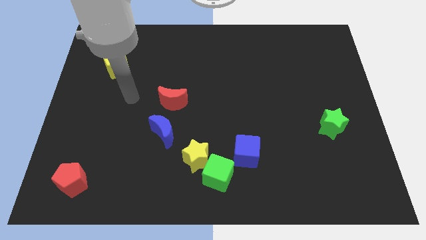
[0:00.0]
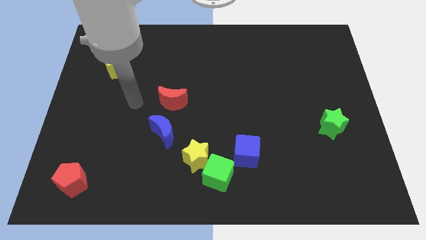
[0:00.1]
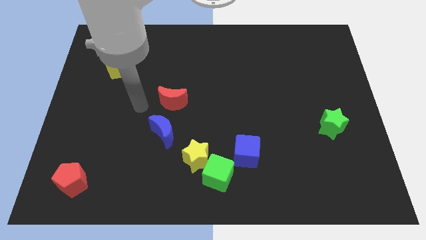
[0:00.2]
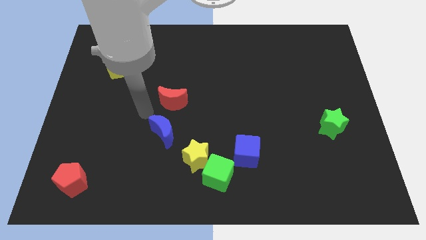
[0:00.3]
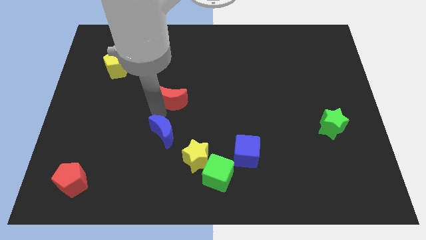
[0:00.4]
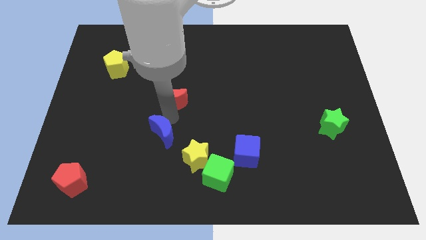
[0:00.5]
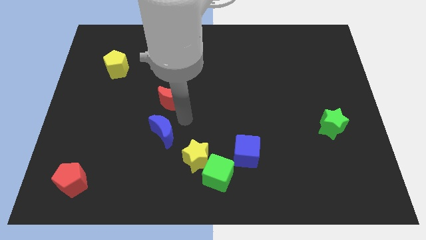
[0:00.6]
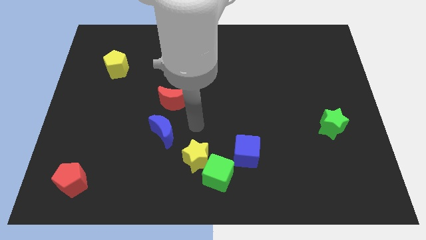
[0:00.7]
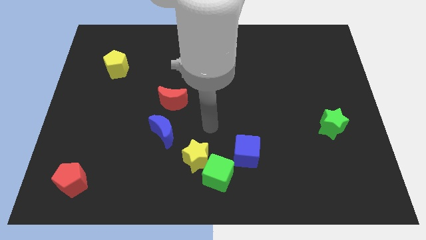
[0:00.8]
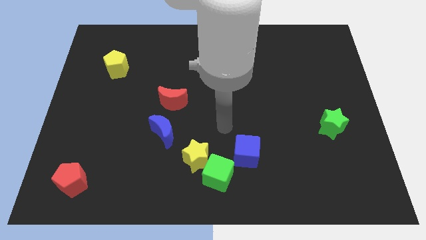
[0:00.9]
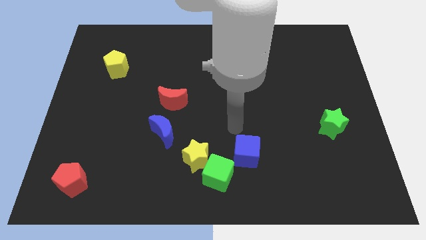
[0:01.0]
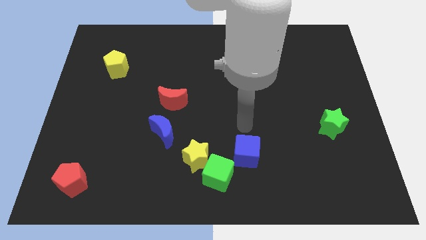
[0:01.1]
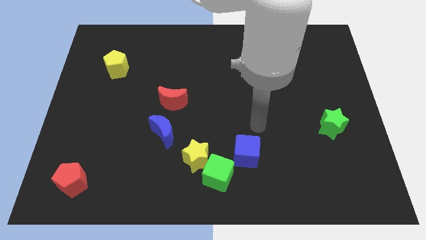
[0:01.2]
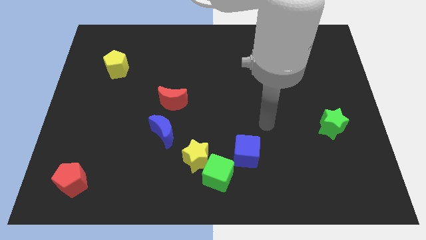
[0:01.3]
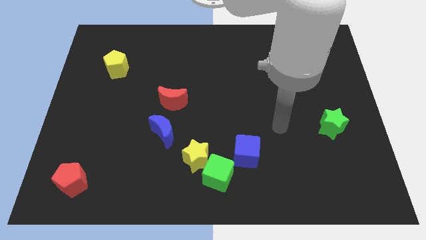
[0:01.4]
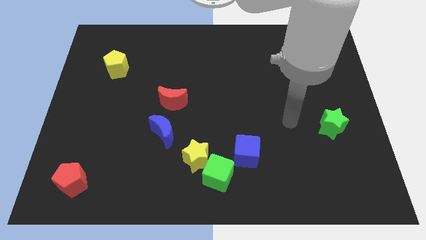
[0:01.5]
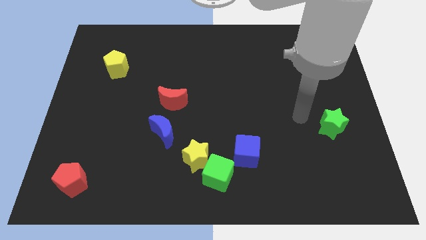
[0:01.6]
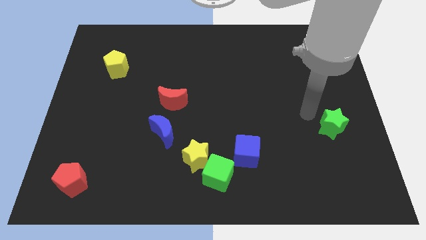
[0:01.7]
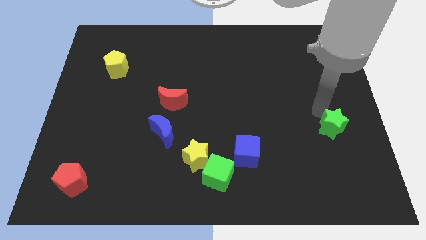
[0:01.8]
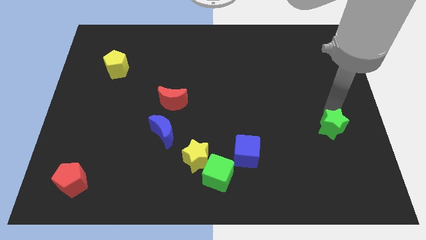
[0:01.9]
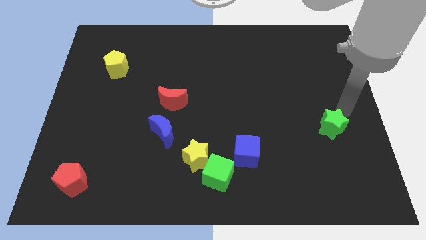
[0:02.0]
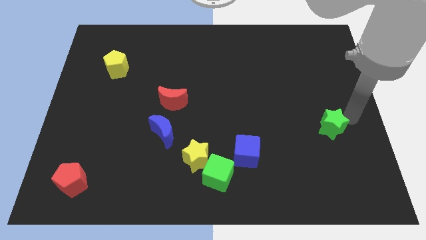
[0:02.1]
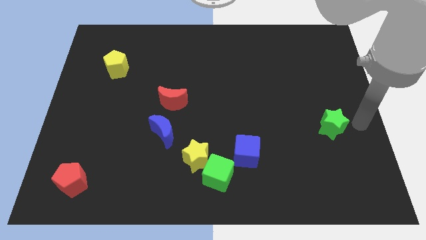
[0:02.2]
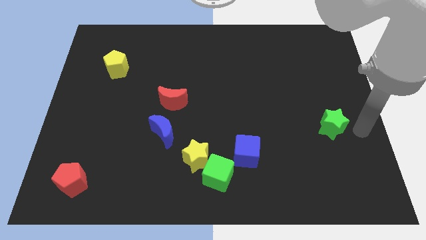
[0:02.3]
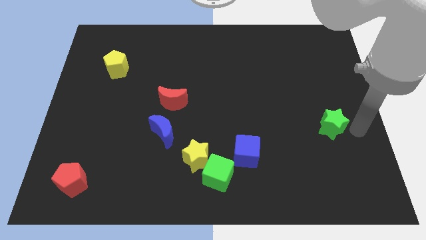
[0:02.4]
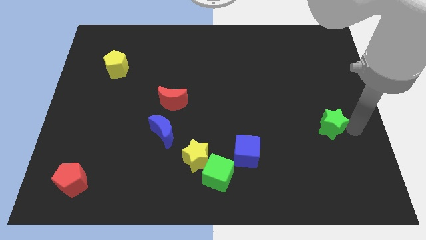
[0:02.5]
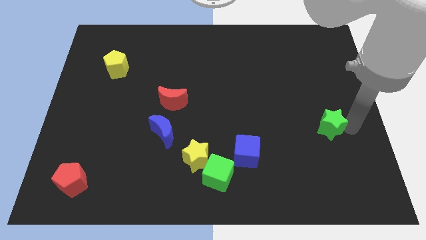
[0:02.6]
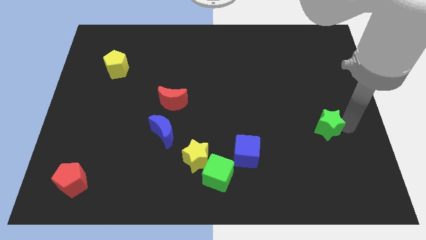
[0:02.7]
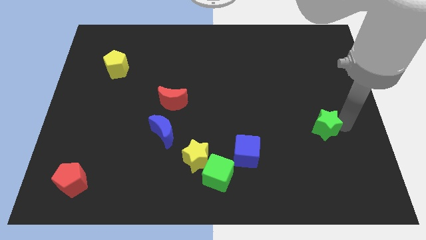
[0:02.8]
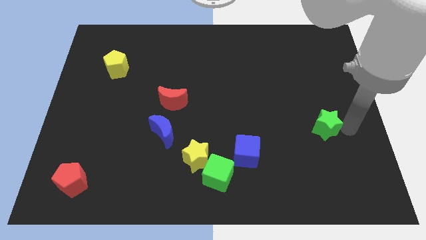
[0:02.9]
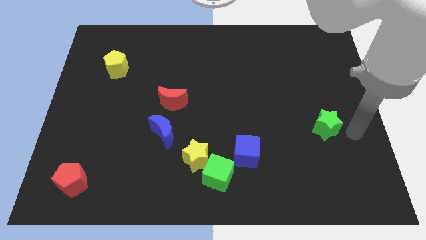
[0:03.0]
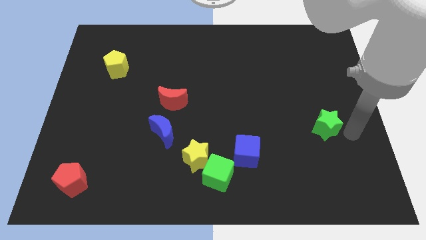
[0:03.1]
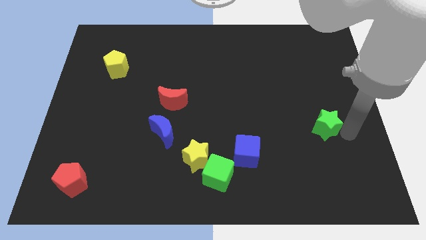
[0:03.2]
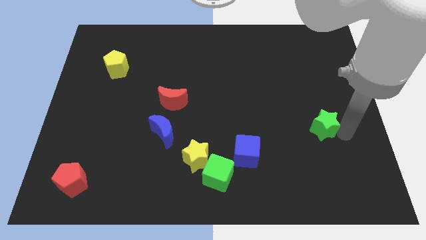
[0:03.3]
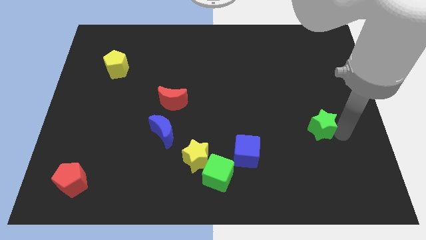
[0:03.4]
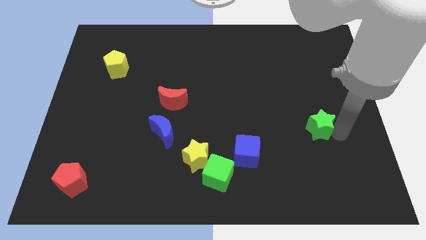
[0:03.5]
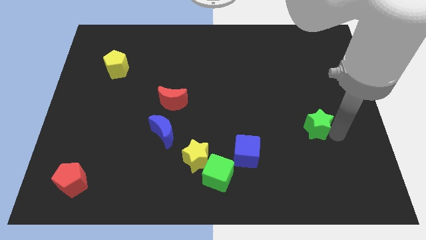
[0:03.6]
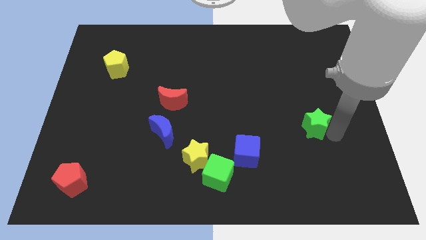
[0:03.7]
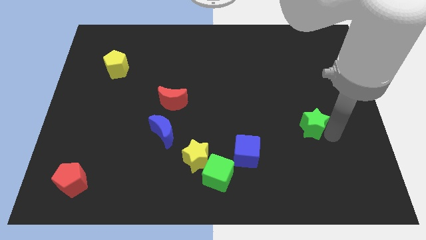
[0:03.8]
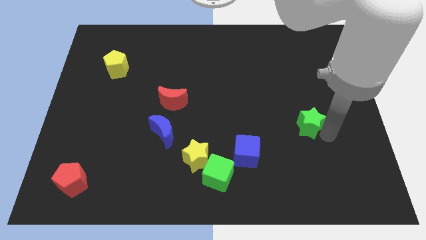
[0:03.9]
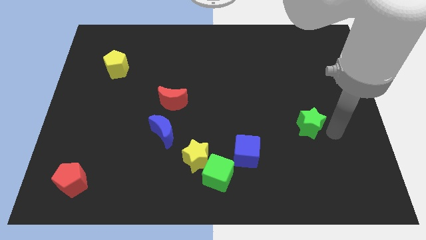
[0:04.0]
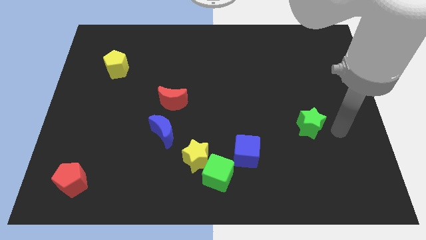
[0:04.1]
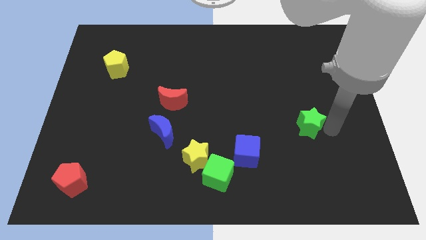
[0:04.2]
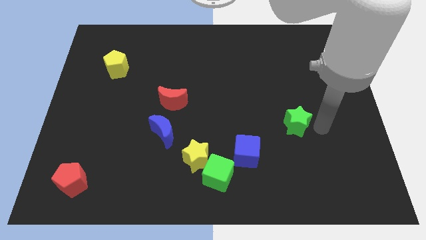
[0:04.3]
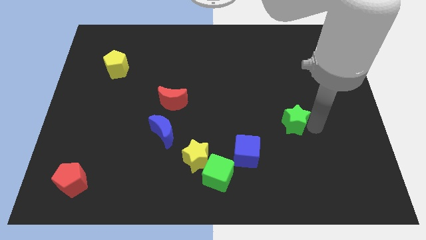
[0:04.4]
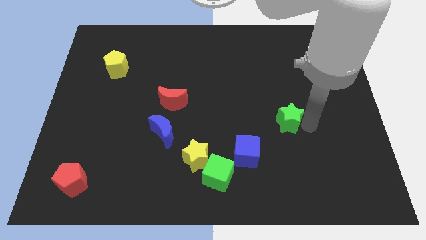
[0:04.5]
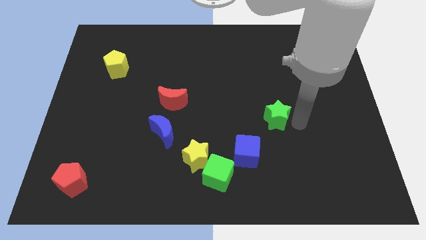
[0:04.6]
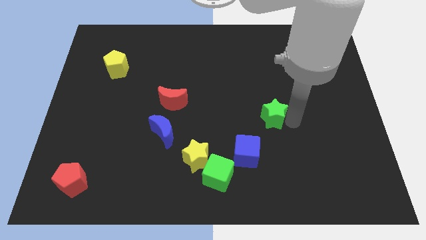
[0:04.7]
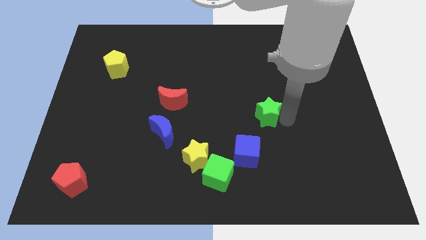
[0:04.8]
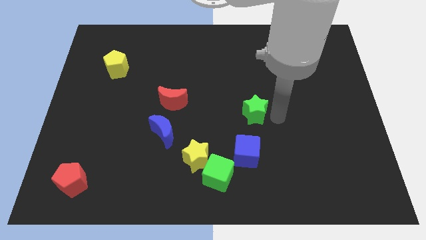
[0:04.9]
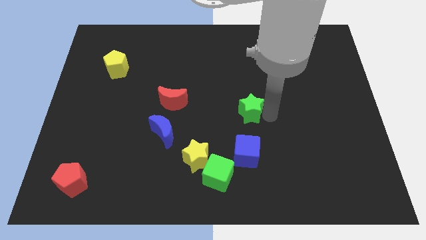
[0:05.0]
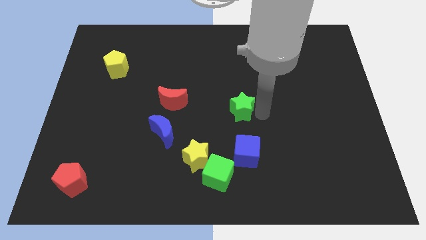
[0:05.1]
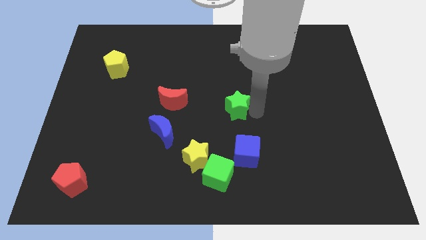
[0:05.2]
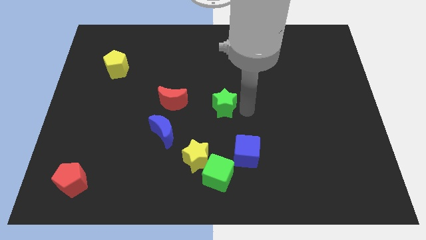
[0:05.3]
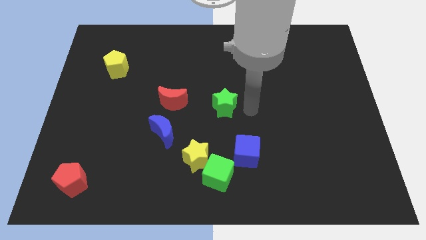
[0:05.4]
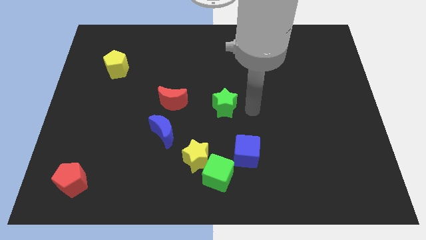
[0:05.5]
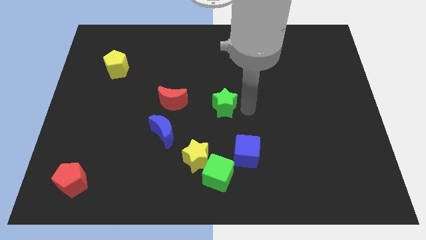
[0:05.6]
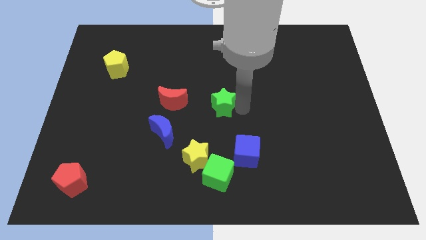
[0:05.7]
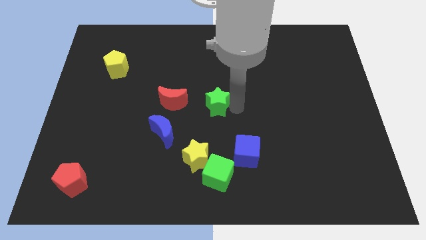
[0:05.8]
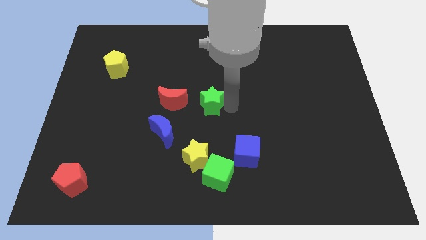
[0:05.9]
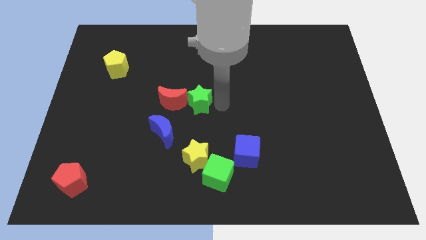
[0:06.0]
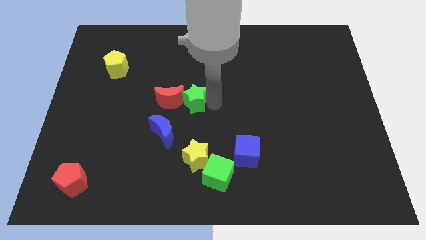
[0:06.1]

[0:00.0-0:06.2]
move the green star next to the red moon

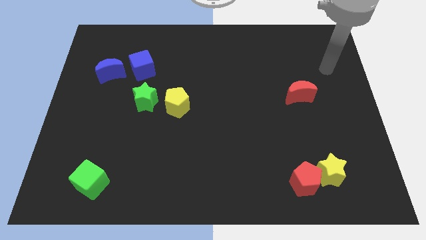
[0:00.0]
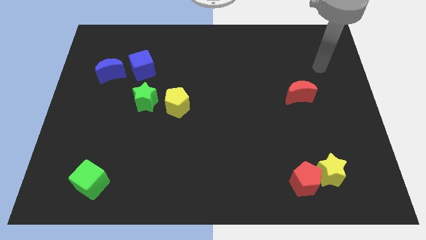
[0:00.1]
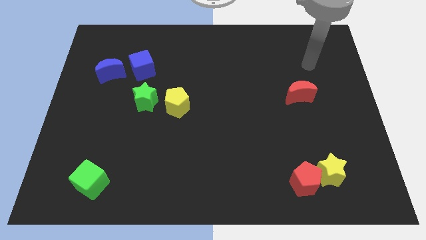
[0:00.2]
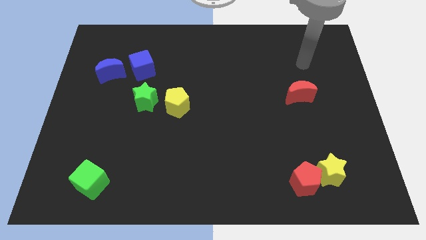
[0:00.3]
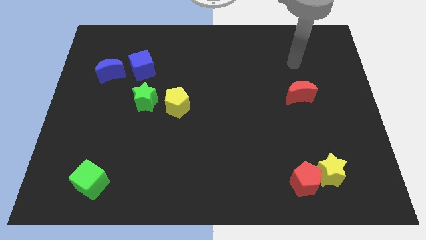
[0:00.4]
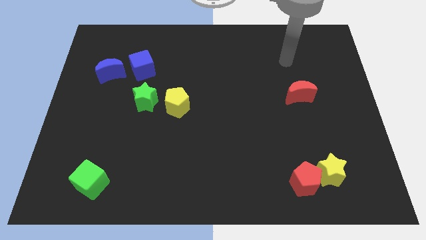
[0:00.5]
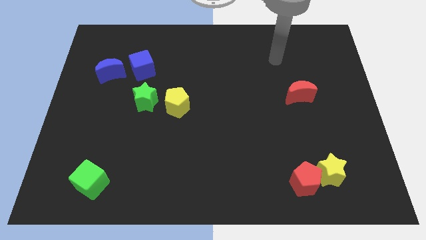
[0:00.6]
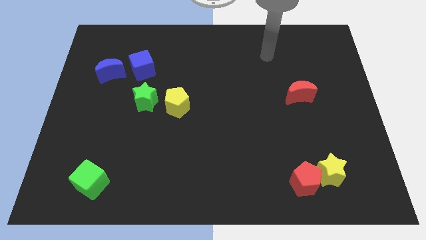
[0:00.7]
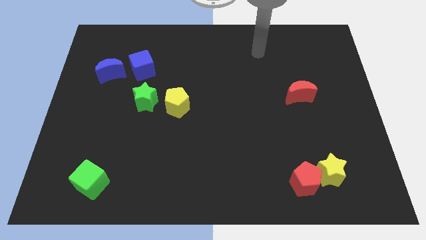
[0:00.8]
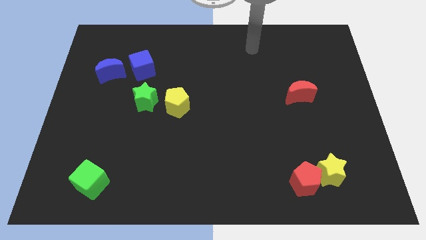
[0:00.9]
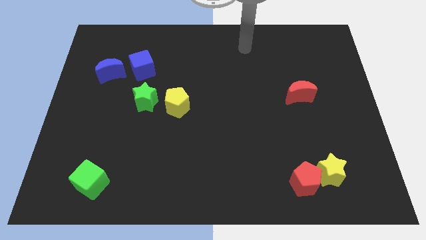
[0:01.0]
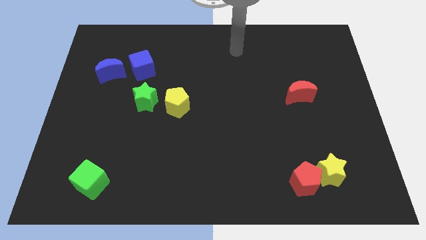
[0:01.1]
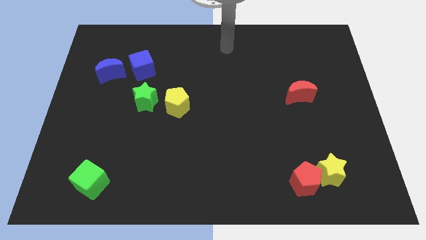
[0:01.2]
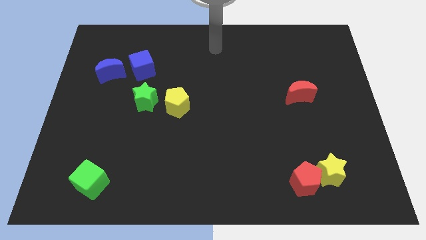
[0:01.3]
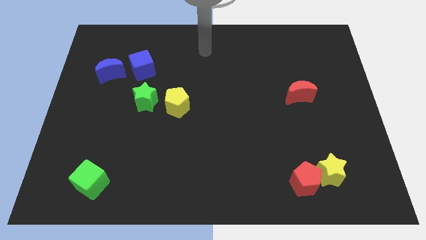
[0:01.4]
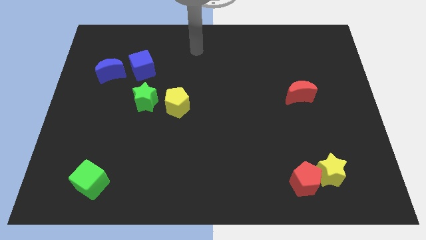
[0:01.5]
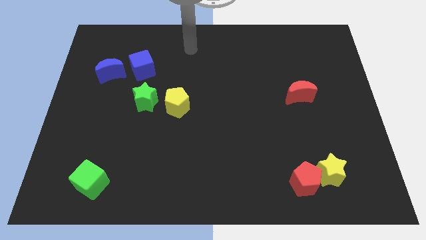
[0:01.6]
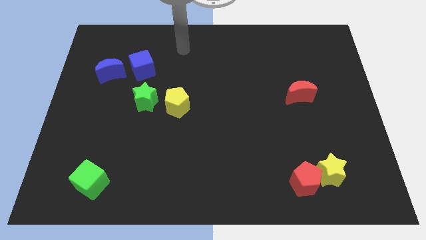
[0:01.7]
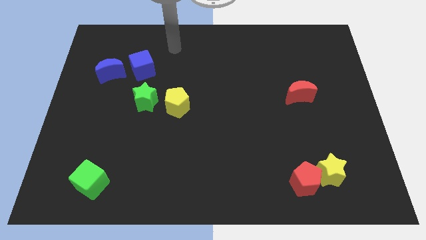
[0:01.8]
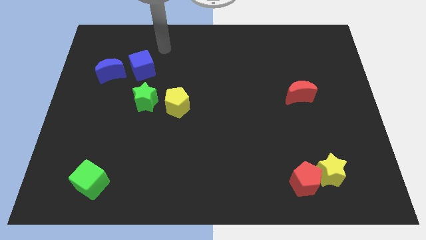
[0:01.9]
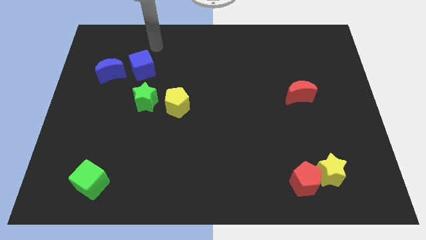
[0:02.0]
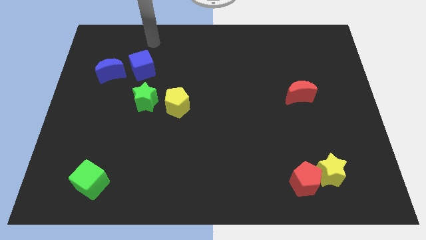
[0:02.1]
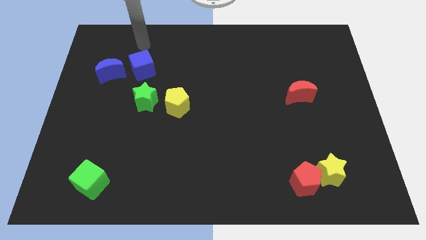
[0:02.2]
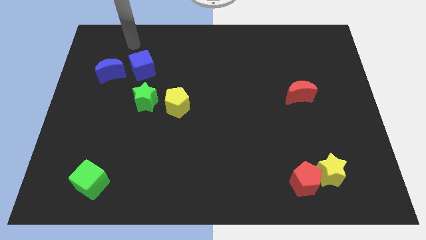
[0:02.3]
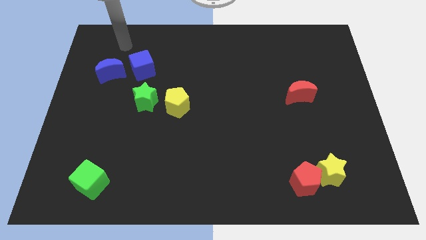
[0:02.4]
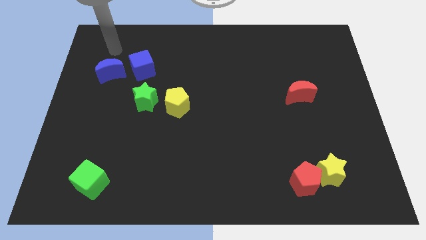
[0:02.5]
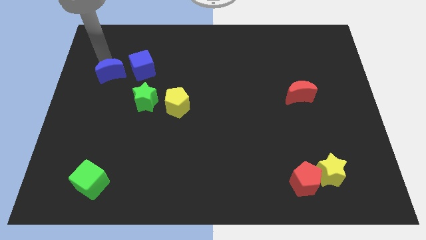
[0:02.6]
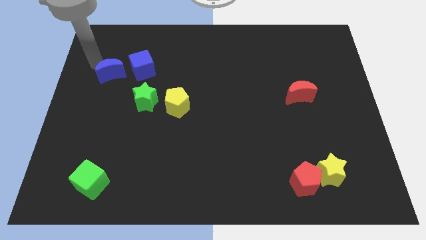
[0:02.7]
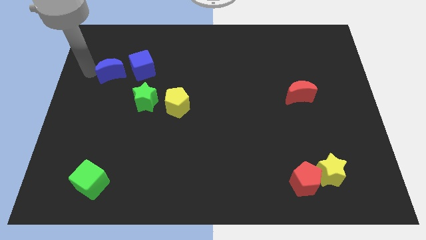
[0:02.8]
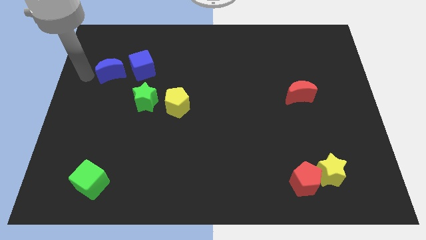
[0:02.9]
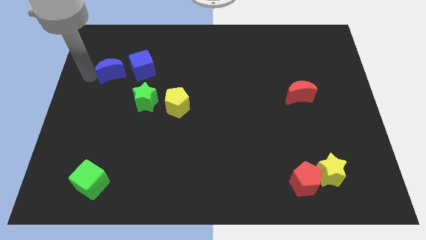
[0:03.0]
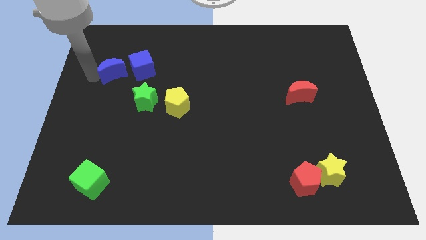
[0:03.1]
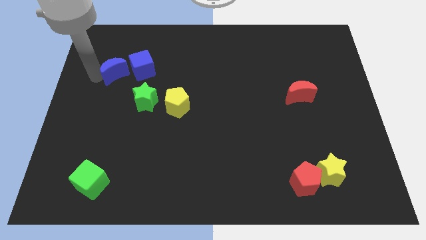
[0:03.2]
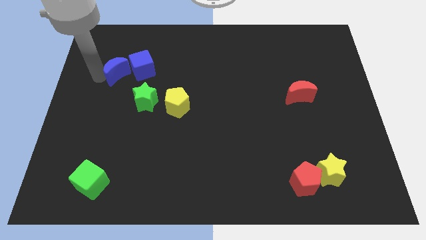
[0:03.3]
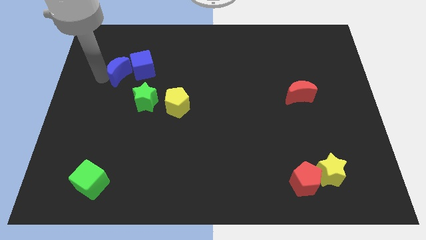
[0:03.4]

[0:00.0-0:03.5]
put the blue moon next to the blue cube
